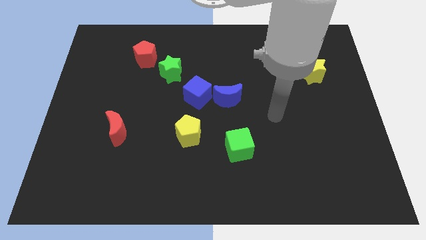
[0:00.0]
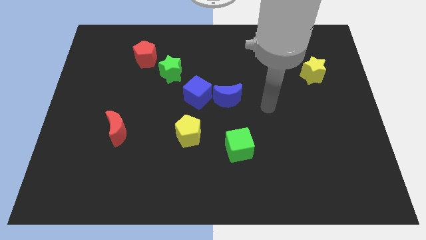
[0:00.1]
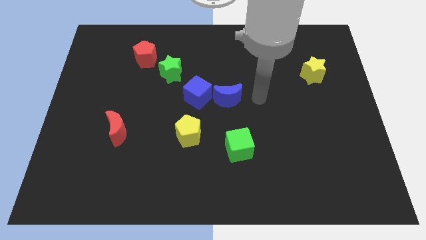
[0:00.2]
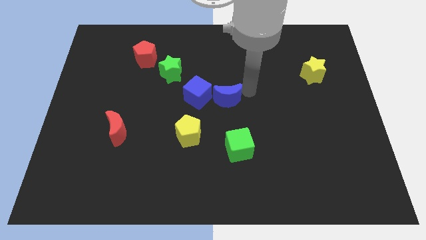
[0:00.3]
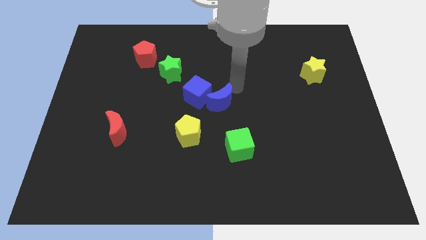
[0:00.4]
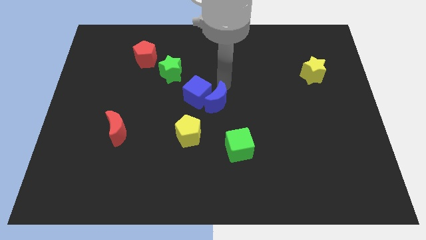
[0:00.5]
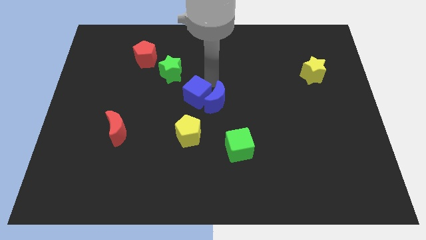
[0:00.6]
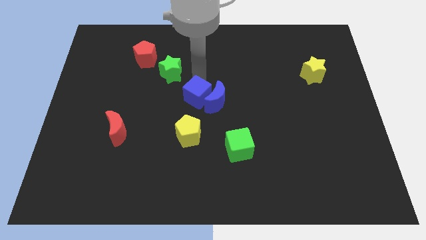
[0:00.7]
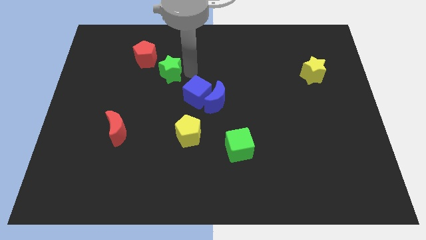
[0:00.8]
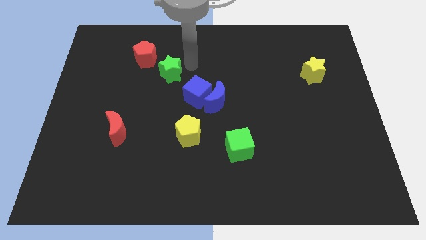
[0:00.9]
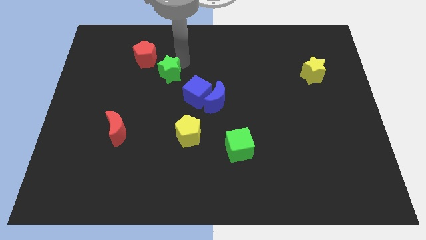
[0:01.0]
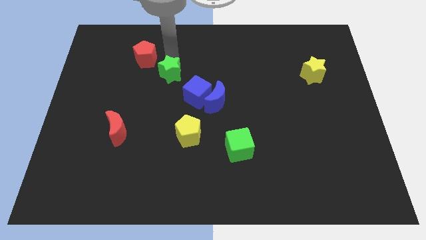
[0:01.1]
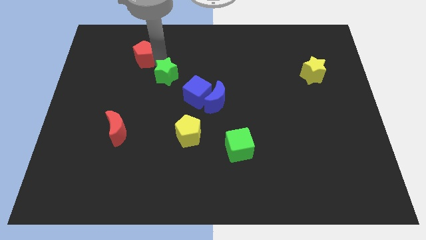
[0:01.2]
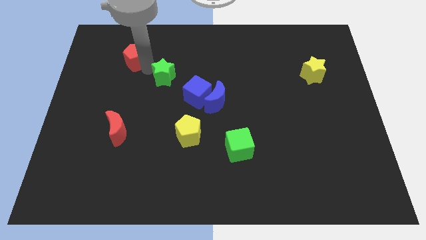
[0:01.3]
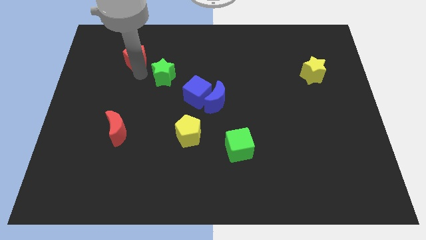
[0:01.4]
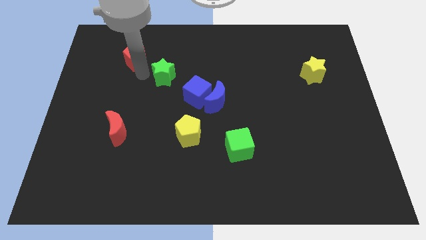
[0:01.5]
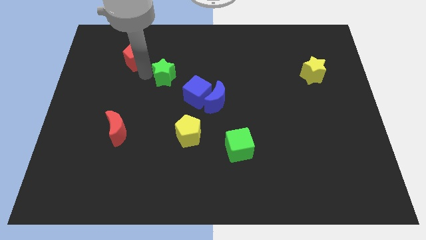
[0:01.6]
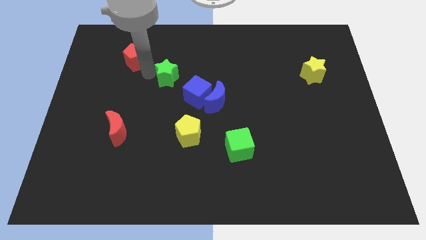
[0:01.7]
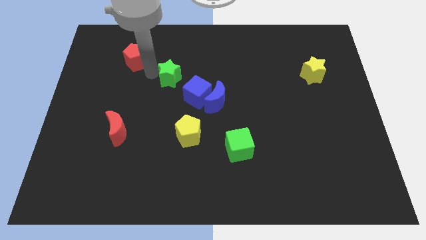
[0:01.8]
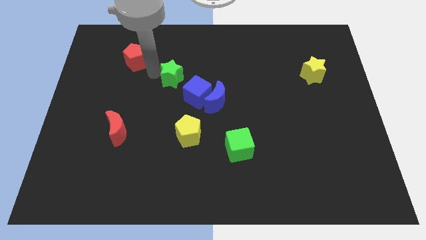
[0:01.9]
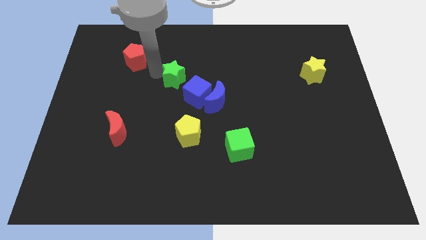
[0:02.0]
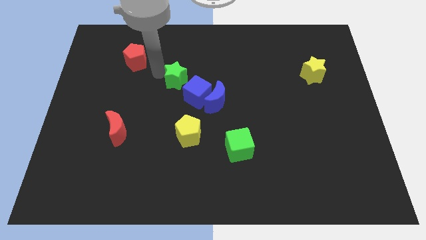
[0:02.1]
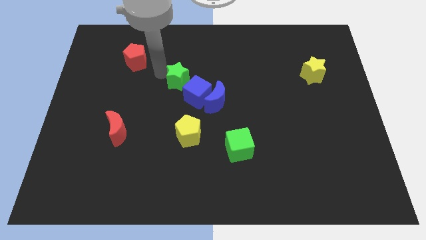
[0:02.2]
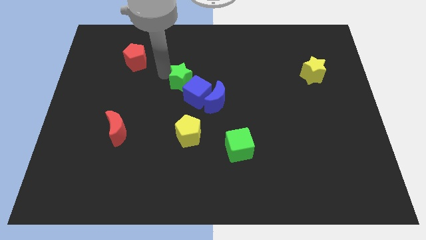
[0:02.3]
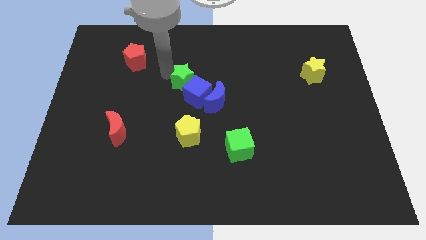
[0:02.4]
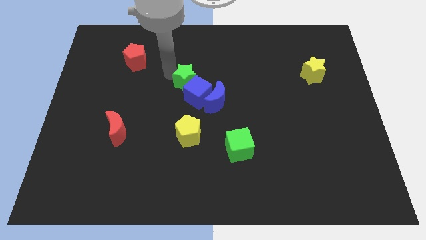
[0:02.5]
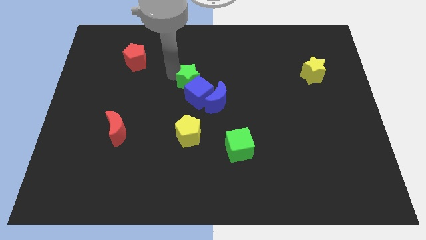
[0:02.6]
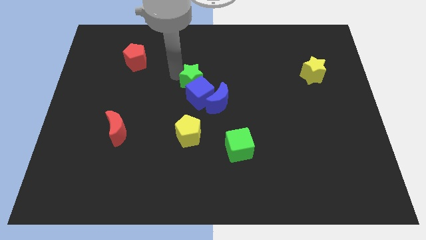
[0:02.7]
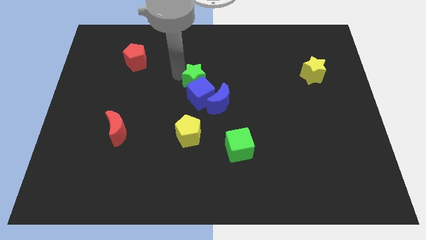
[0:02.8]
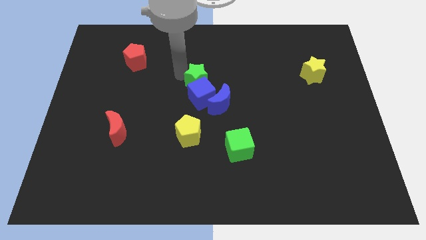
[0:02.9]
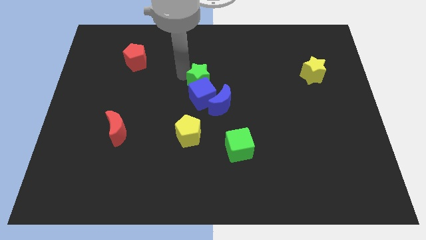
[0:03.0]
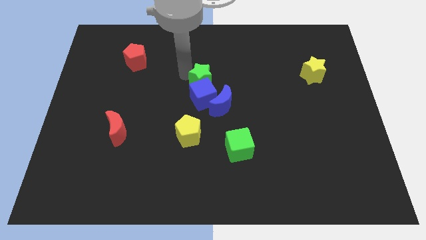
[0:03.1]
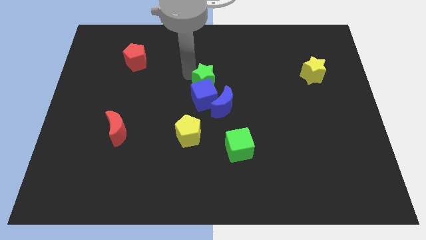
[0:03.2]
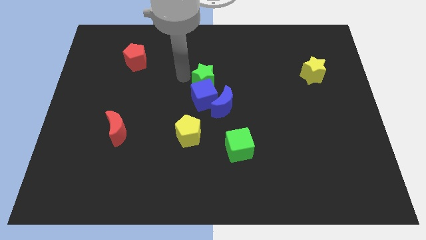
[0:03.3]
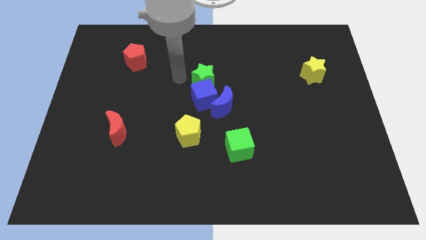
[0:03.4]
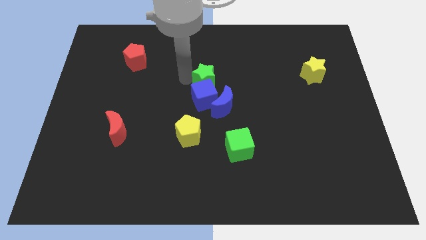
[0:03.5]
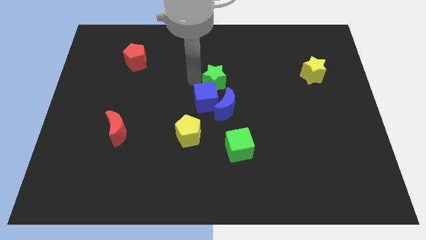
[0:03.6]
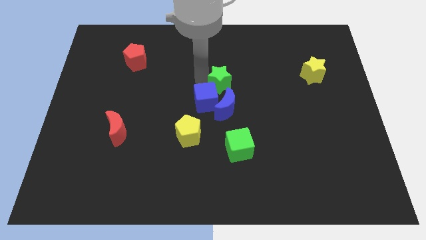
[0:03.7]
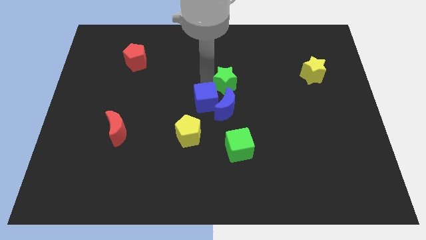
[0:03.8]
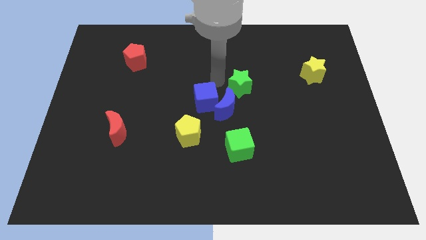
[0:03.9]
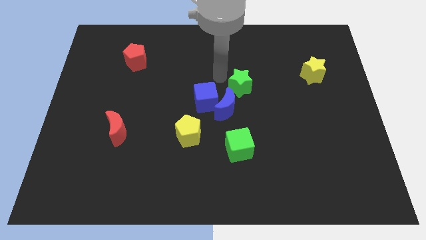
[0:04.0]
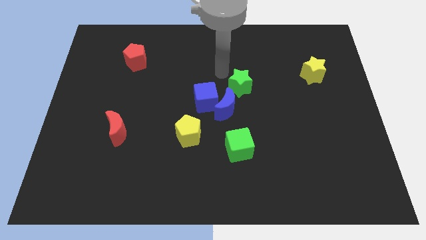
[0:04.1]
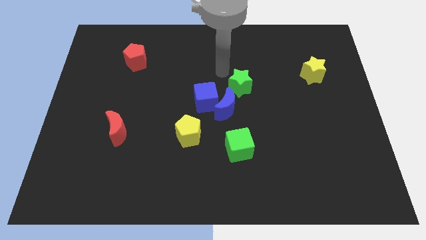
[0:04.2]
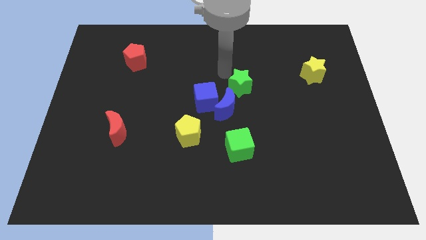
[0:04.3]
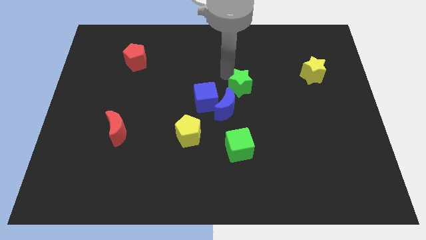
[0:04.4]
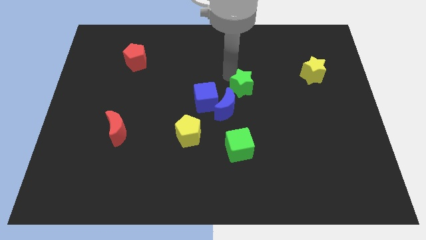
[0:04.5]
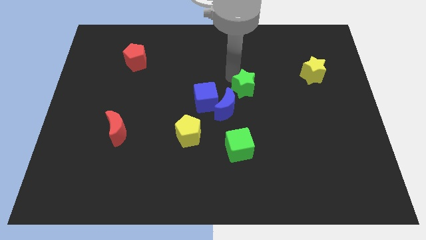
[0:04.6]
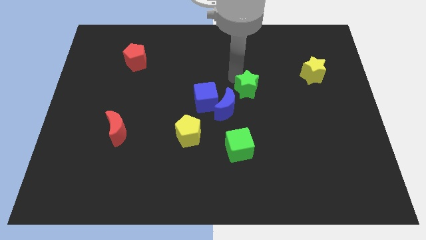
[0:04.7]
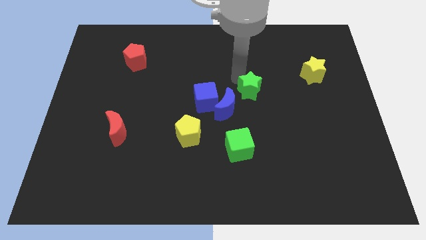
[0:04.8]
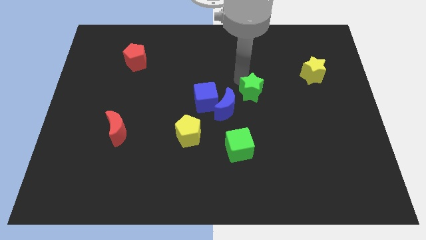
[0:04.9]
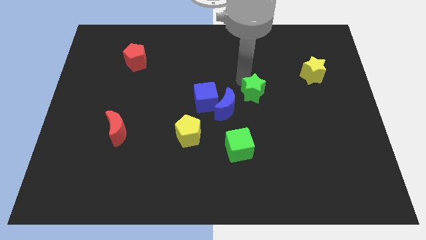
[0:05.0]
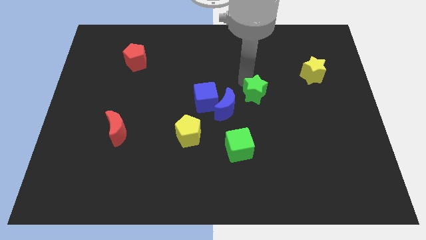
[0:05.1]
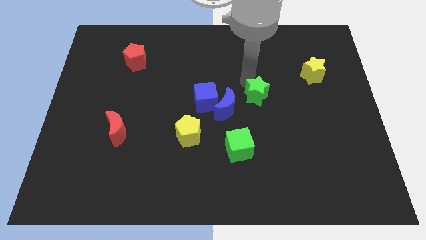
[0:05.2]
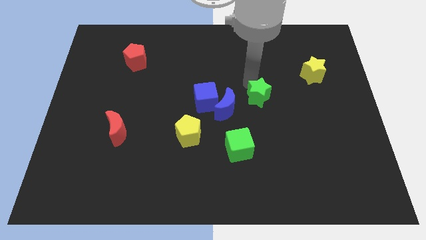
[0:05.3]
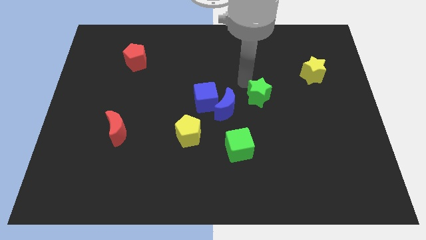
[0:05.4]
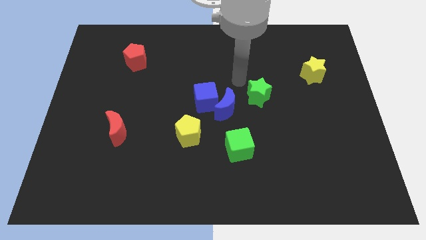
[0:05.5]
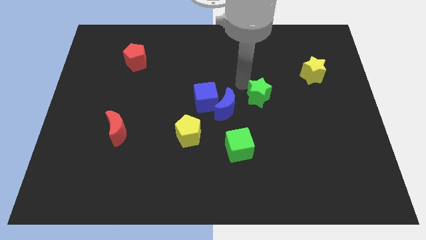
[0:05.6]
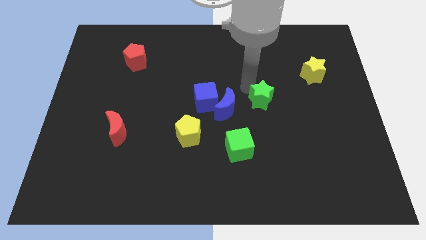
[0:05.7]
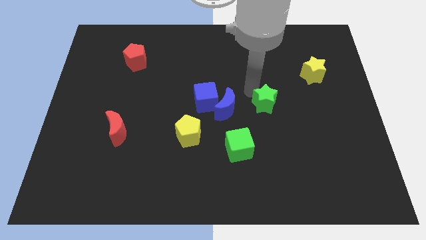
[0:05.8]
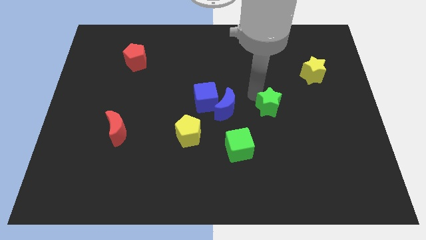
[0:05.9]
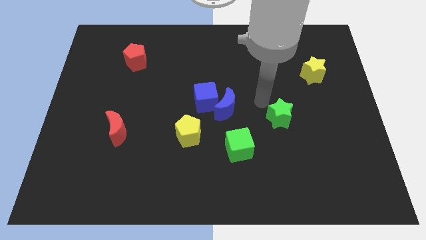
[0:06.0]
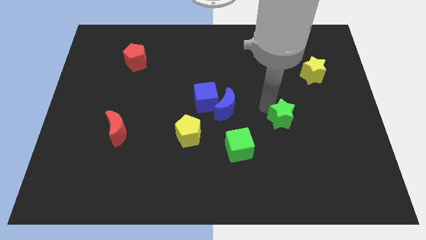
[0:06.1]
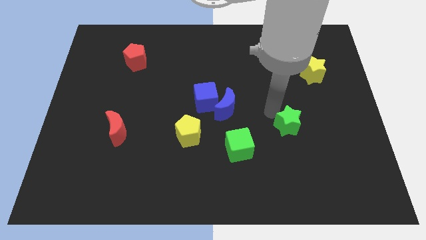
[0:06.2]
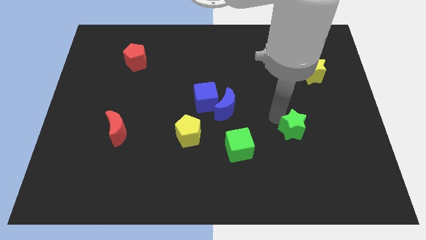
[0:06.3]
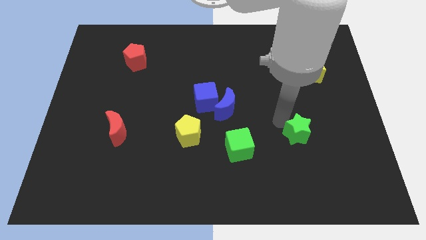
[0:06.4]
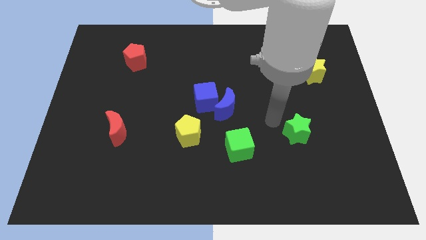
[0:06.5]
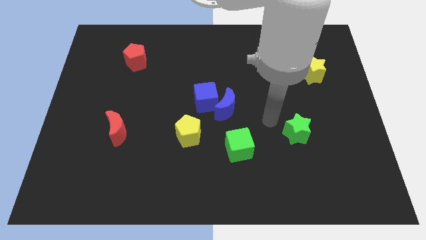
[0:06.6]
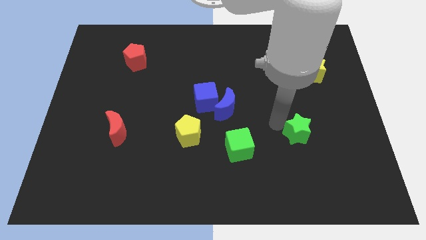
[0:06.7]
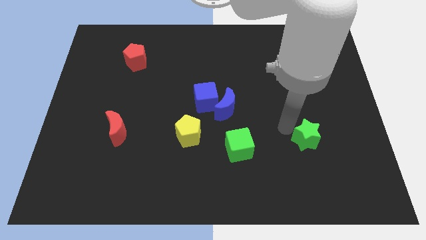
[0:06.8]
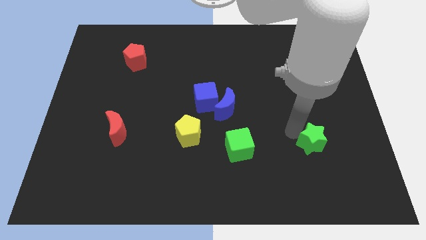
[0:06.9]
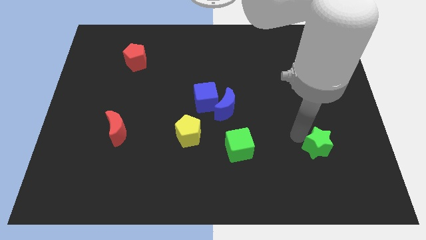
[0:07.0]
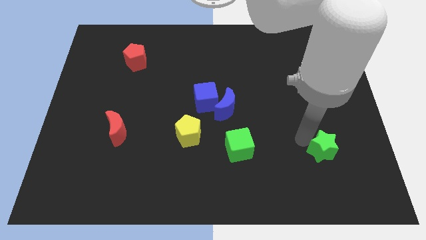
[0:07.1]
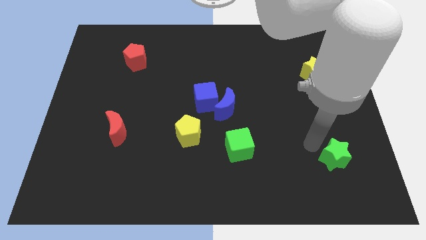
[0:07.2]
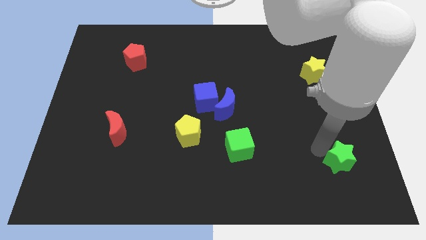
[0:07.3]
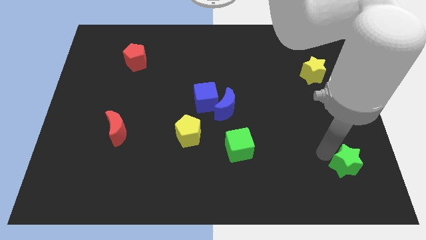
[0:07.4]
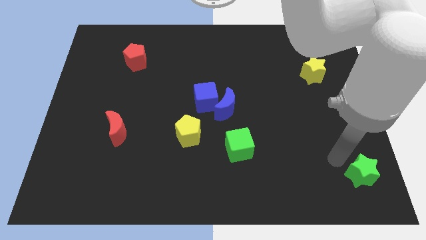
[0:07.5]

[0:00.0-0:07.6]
put the green star to the bottom right
